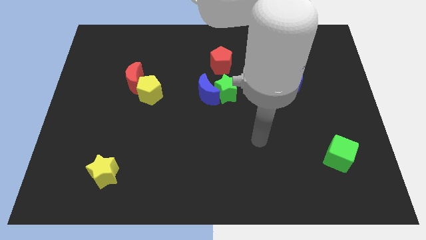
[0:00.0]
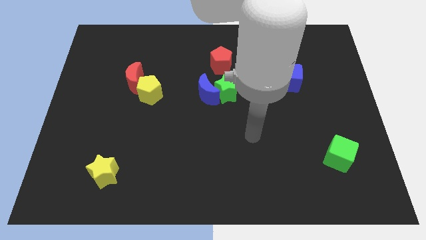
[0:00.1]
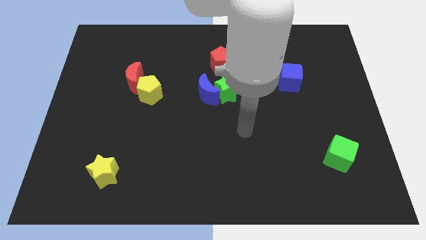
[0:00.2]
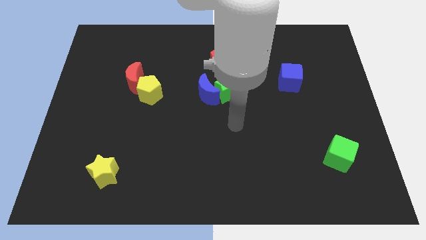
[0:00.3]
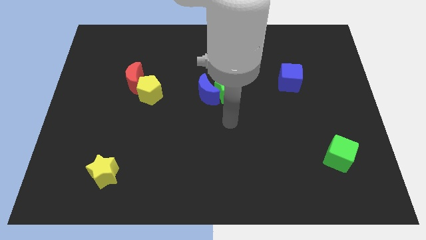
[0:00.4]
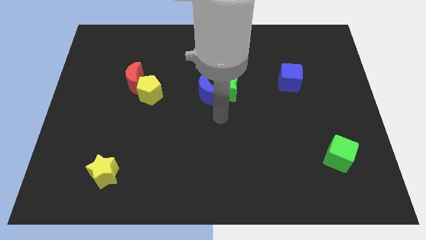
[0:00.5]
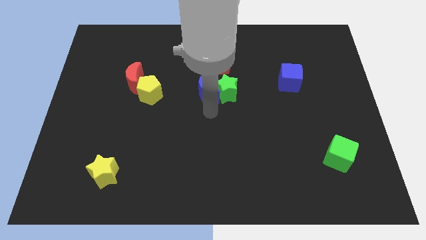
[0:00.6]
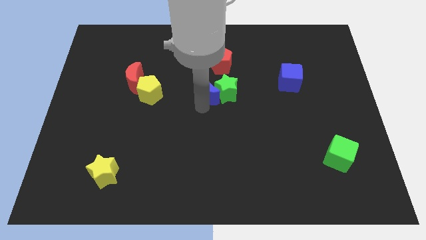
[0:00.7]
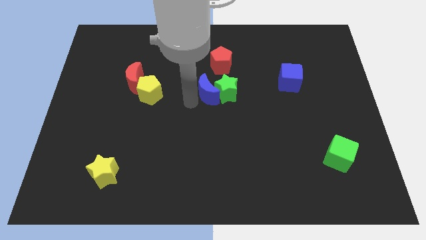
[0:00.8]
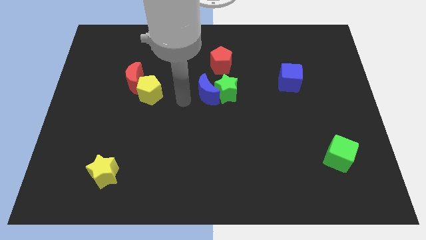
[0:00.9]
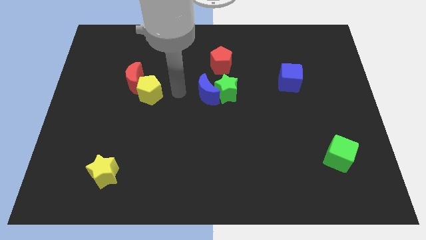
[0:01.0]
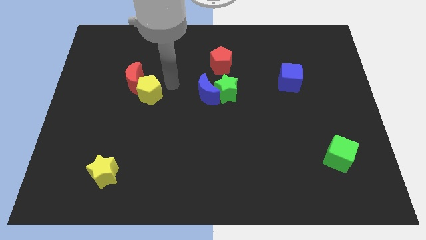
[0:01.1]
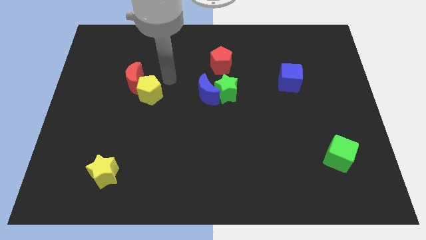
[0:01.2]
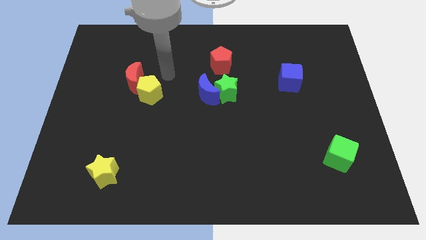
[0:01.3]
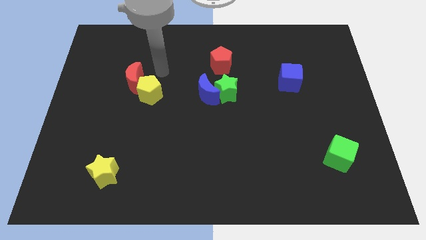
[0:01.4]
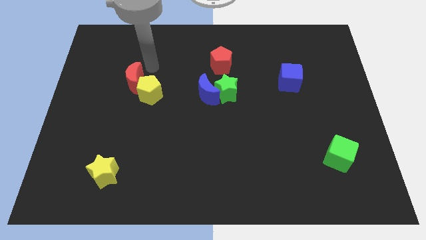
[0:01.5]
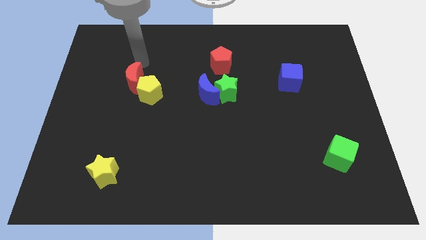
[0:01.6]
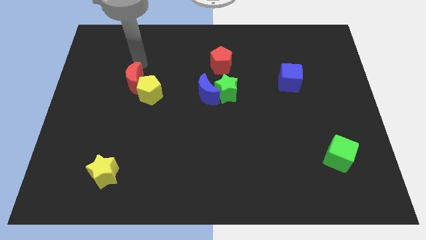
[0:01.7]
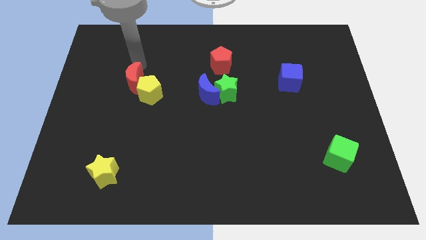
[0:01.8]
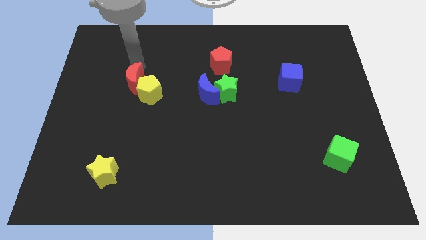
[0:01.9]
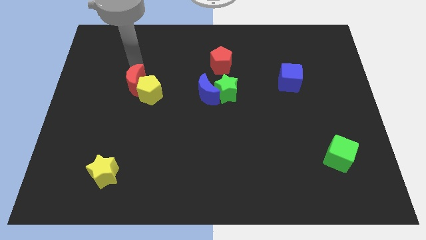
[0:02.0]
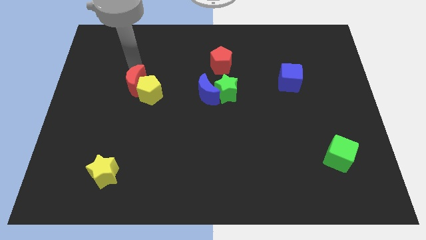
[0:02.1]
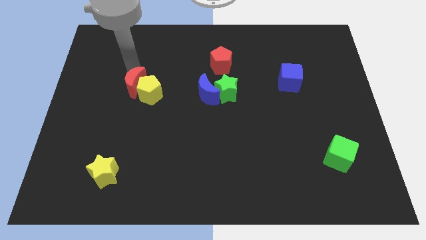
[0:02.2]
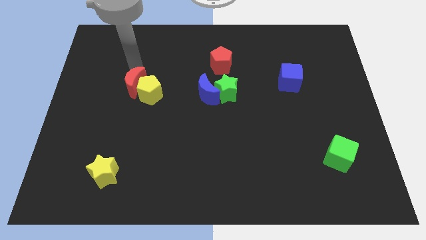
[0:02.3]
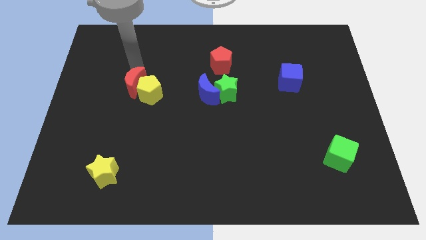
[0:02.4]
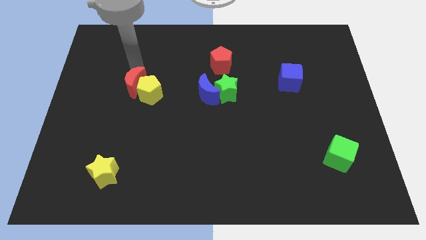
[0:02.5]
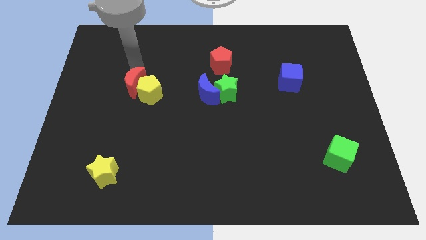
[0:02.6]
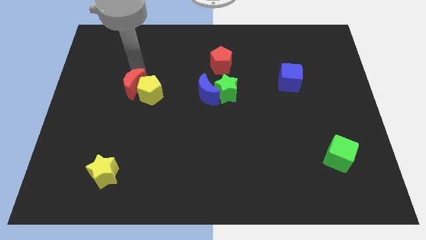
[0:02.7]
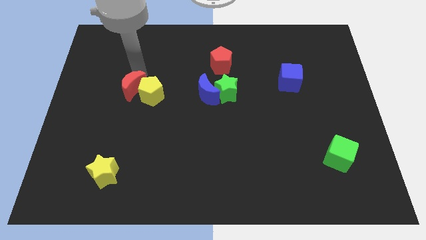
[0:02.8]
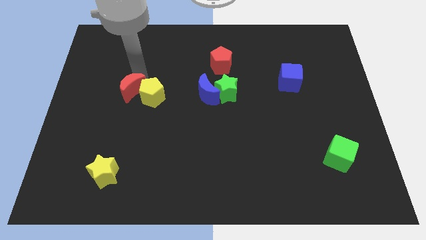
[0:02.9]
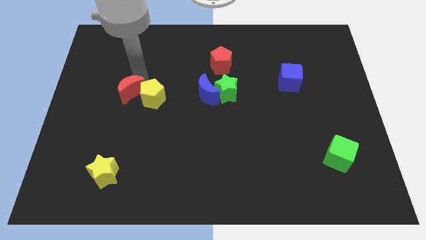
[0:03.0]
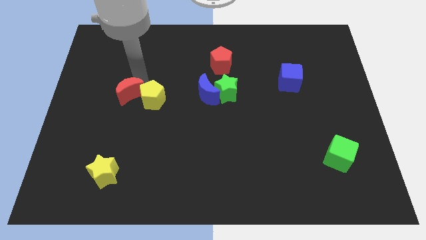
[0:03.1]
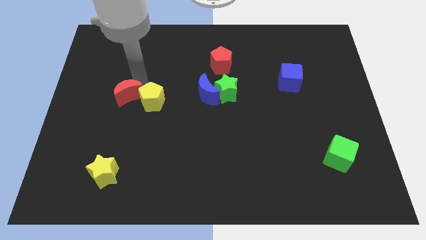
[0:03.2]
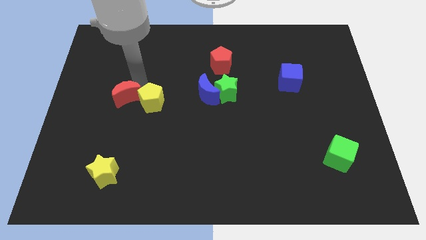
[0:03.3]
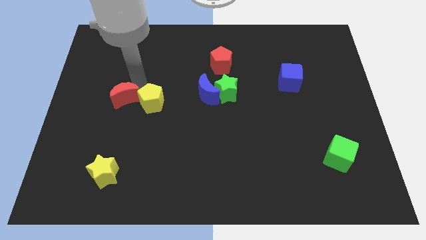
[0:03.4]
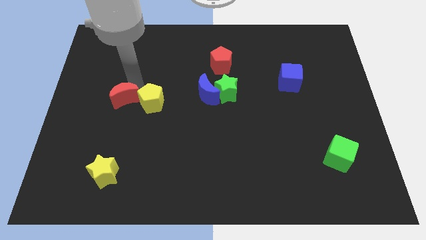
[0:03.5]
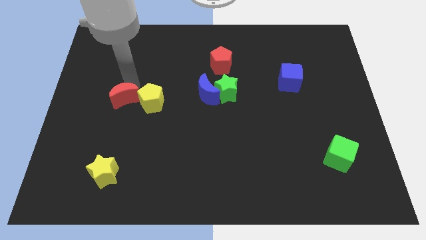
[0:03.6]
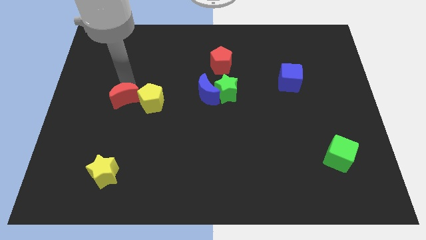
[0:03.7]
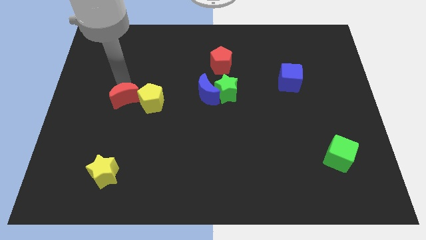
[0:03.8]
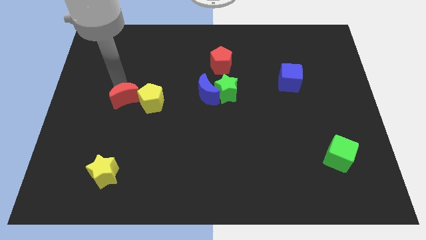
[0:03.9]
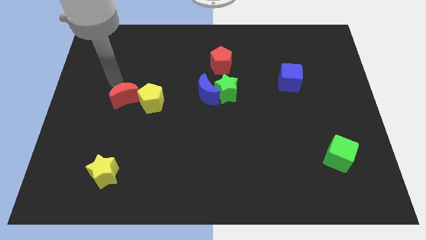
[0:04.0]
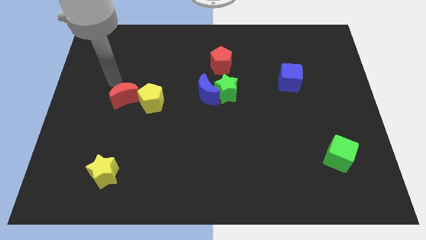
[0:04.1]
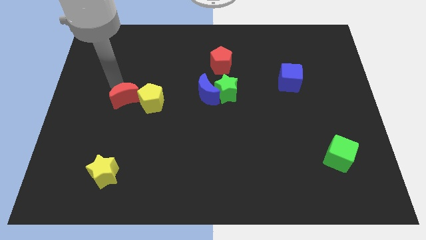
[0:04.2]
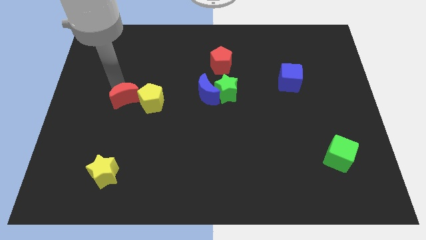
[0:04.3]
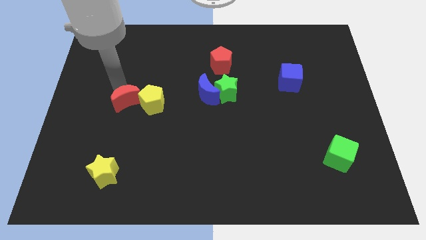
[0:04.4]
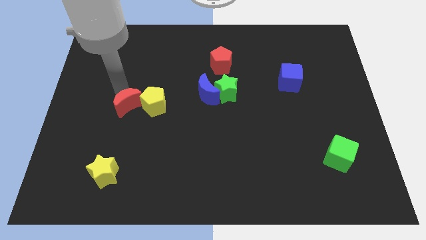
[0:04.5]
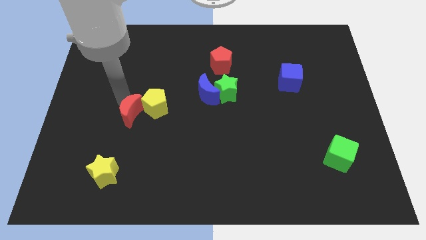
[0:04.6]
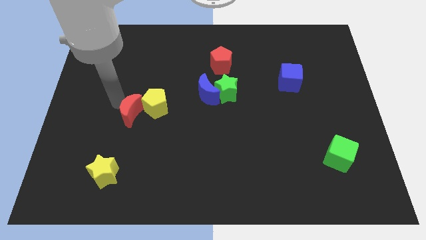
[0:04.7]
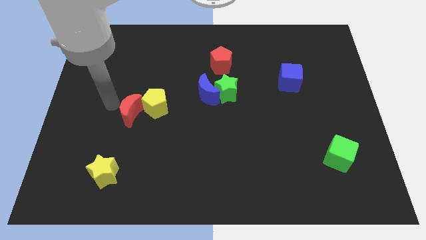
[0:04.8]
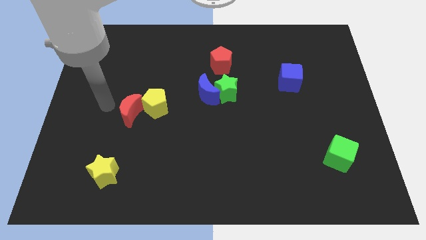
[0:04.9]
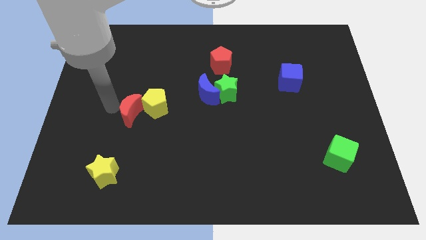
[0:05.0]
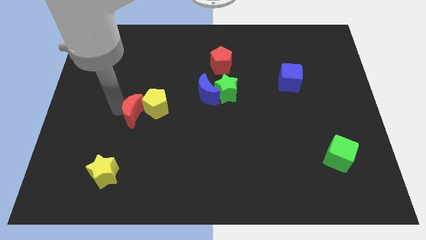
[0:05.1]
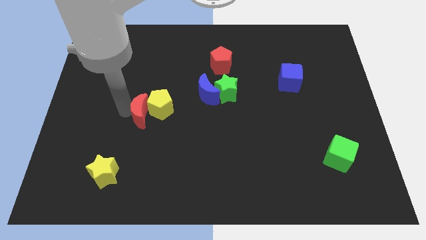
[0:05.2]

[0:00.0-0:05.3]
move the red moon downwards and to the right a little bit

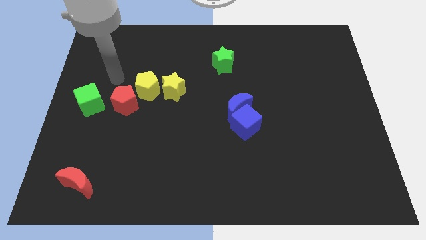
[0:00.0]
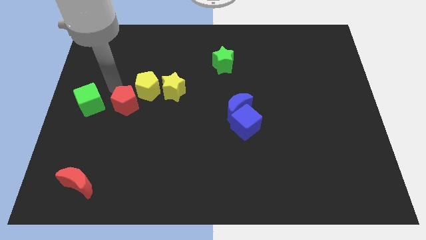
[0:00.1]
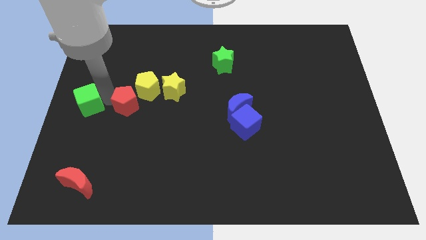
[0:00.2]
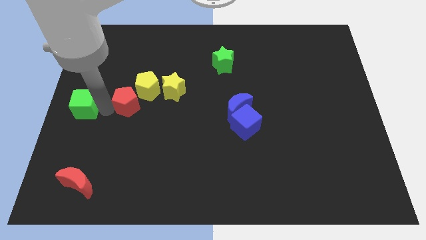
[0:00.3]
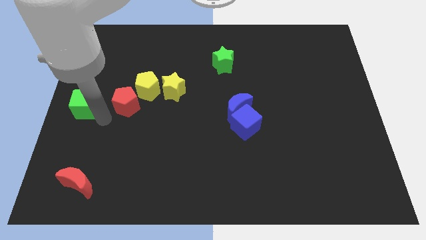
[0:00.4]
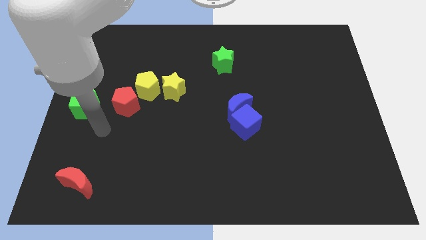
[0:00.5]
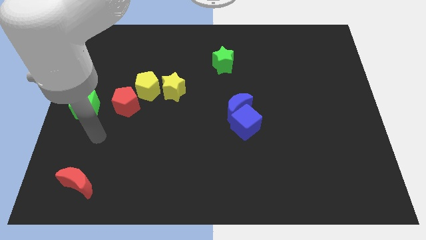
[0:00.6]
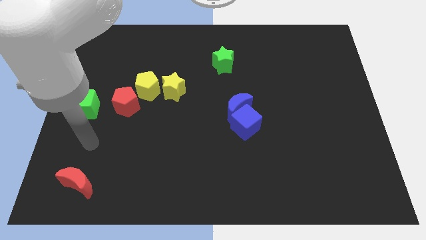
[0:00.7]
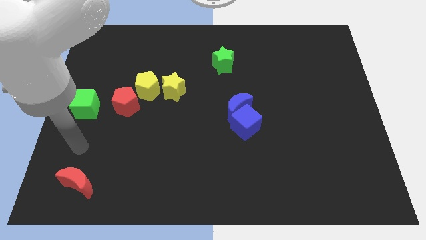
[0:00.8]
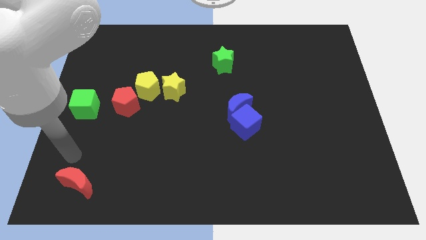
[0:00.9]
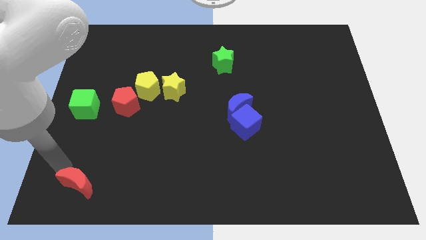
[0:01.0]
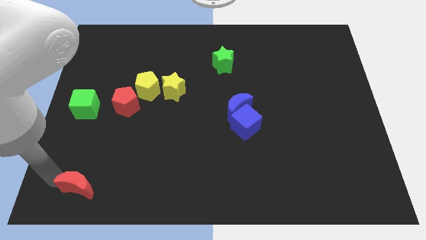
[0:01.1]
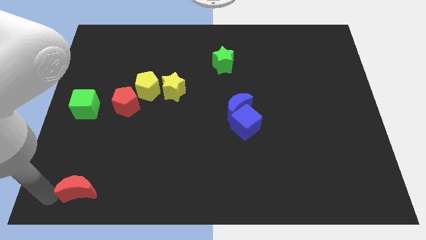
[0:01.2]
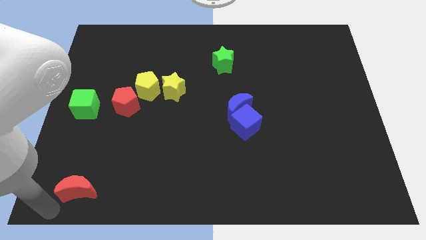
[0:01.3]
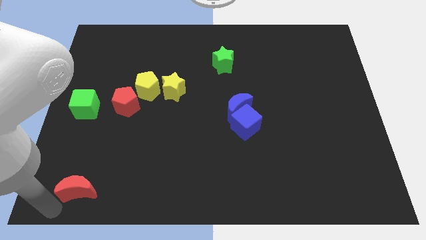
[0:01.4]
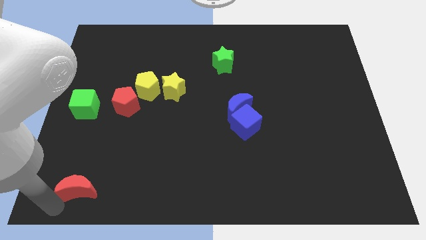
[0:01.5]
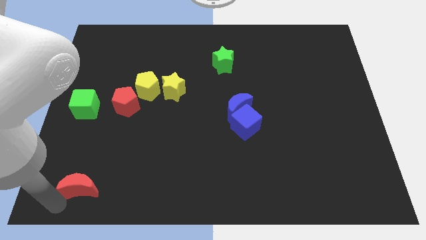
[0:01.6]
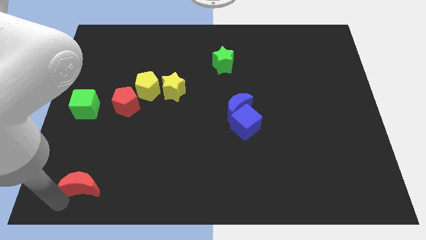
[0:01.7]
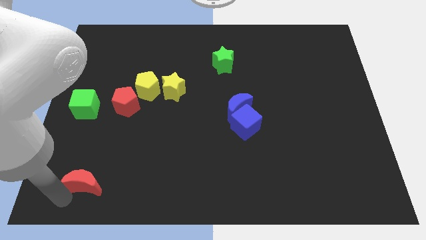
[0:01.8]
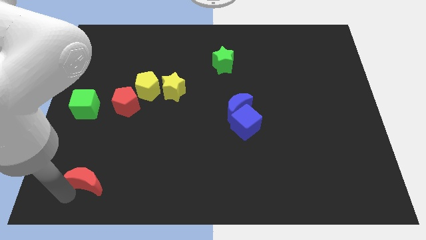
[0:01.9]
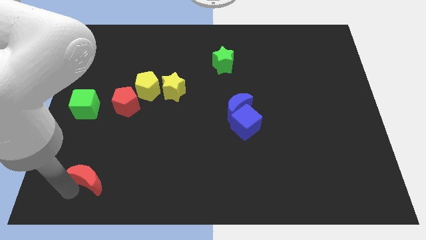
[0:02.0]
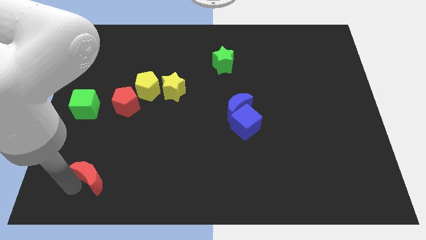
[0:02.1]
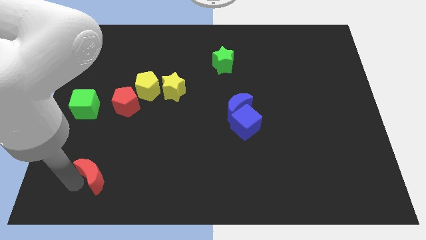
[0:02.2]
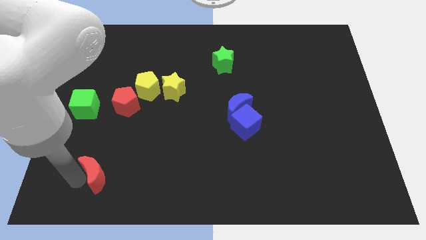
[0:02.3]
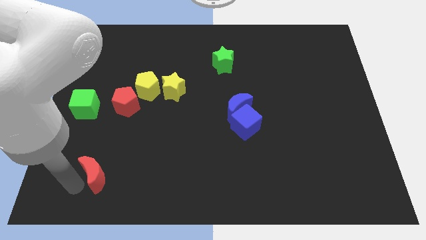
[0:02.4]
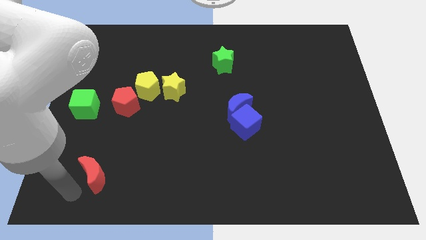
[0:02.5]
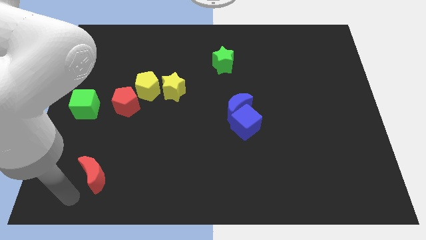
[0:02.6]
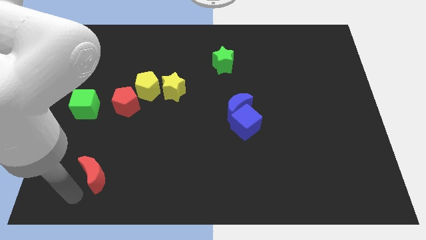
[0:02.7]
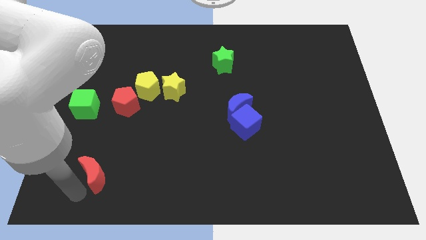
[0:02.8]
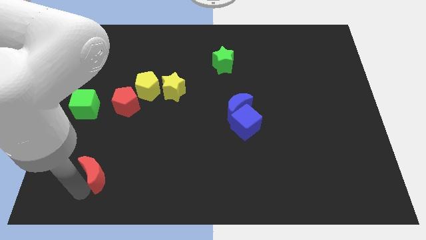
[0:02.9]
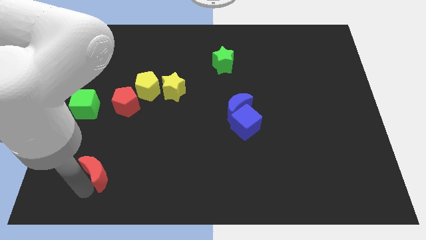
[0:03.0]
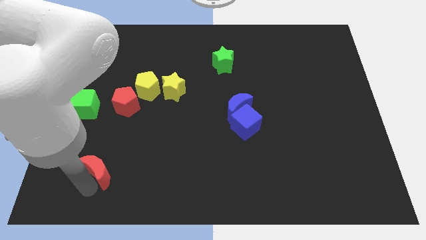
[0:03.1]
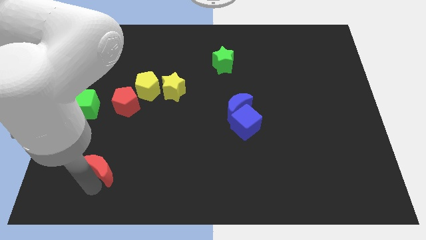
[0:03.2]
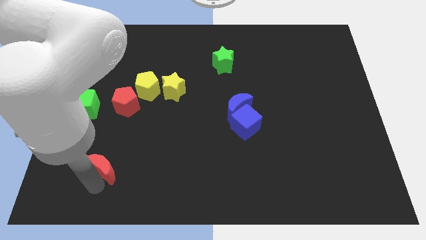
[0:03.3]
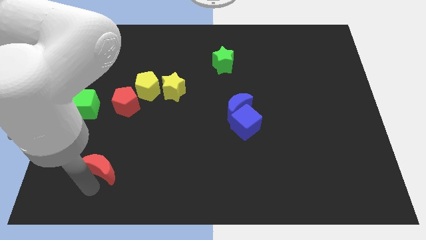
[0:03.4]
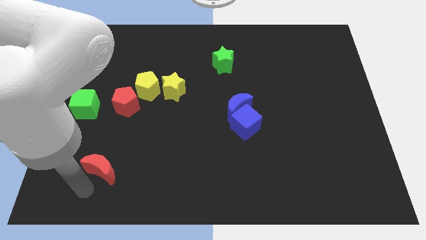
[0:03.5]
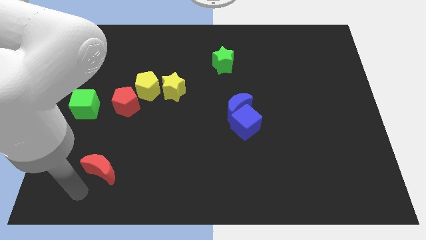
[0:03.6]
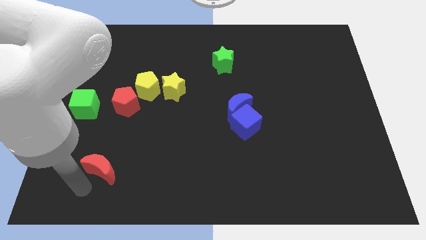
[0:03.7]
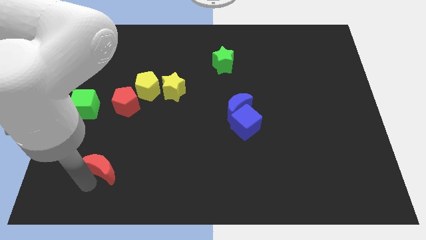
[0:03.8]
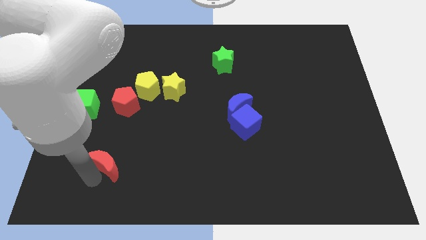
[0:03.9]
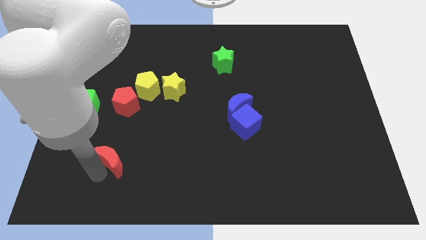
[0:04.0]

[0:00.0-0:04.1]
slightly slide the red moon diagonally upwards and right
